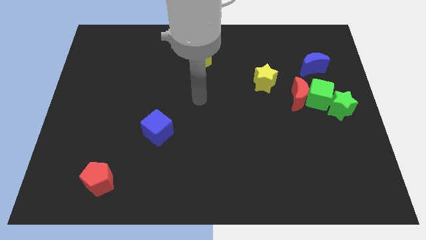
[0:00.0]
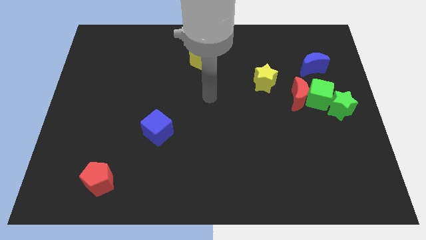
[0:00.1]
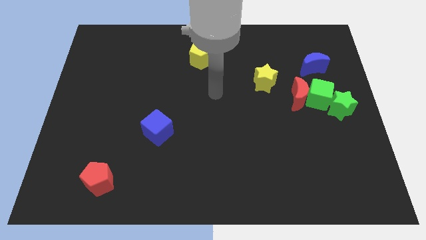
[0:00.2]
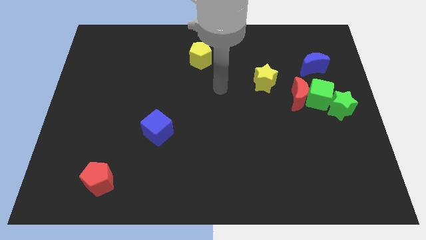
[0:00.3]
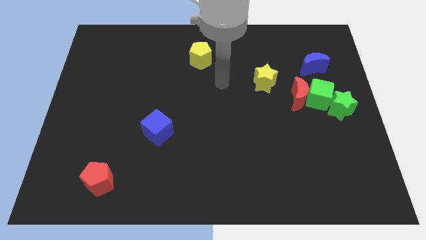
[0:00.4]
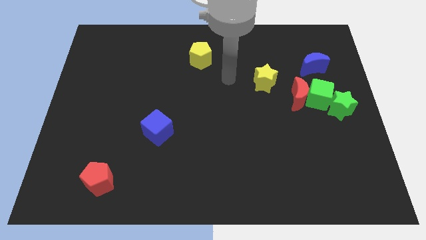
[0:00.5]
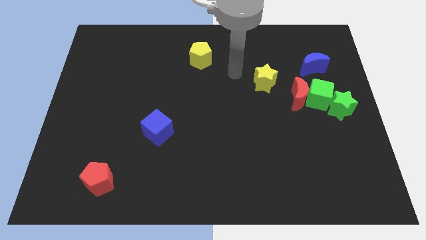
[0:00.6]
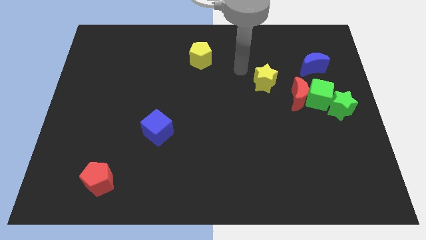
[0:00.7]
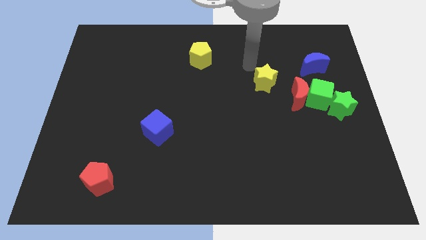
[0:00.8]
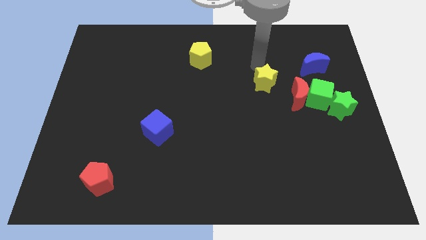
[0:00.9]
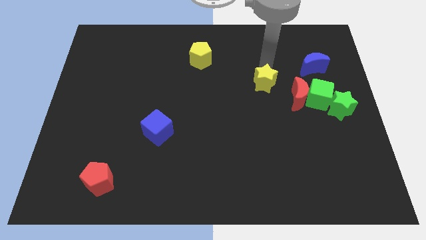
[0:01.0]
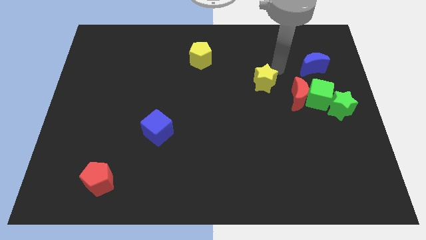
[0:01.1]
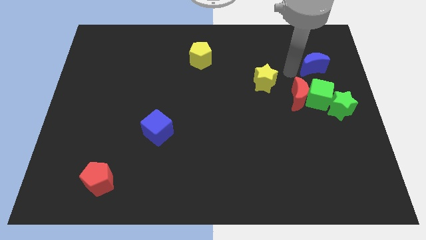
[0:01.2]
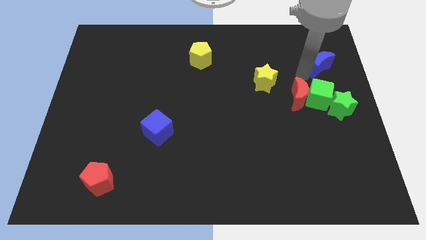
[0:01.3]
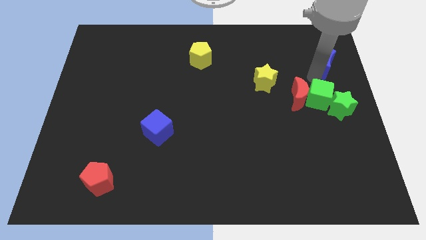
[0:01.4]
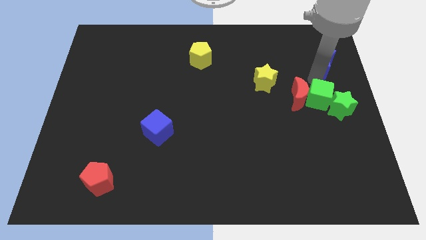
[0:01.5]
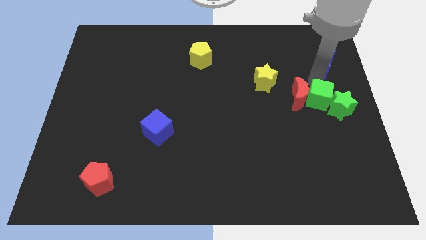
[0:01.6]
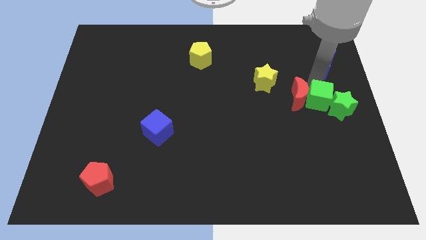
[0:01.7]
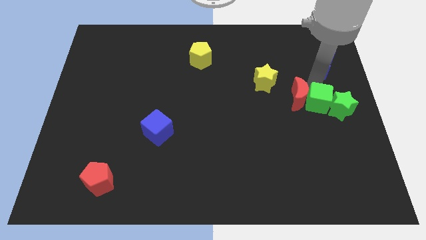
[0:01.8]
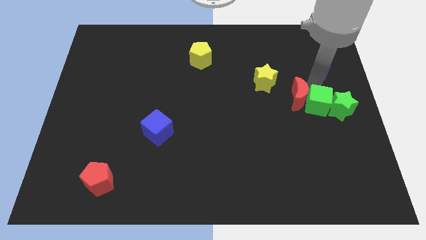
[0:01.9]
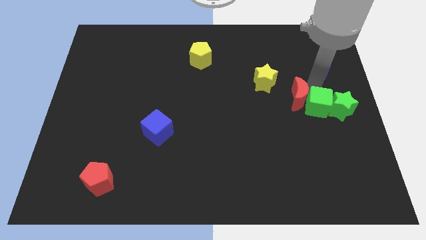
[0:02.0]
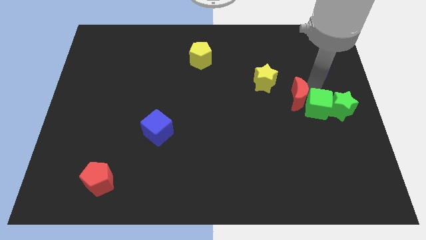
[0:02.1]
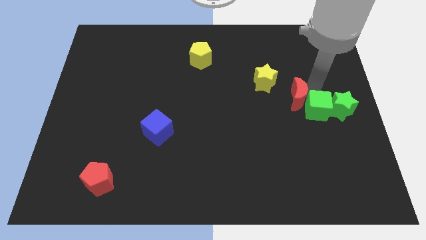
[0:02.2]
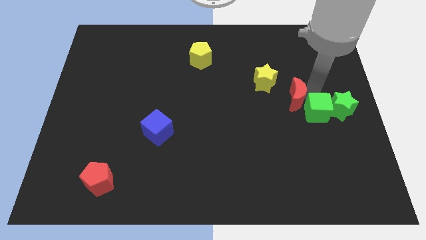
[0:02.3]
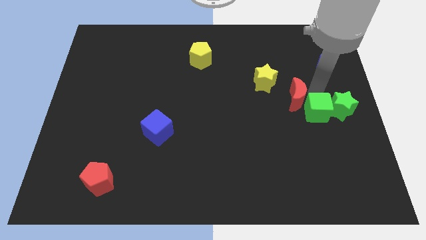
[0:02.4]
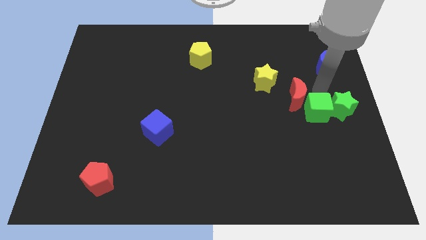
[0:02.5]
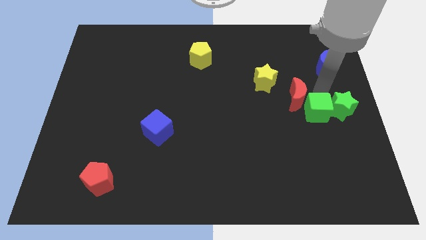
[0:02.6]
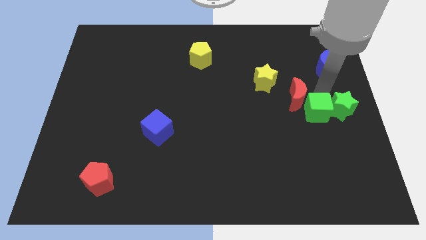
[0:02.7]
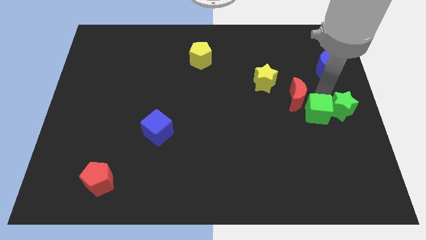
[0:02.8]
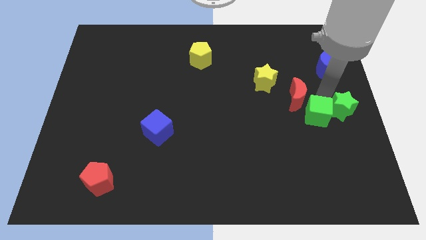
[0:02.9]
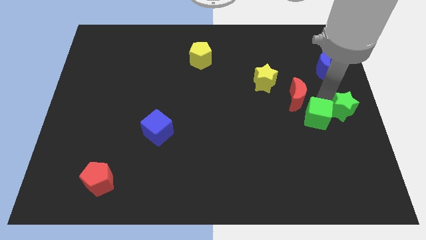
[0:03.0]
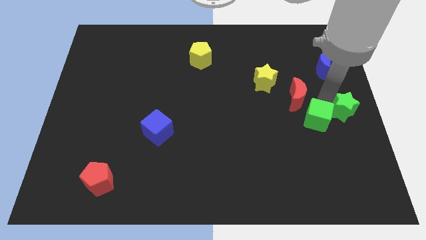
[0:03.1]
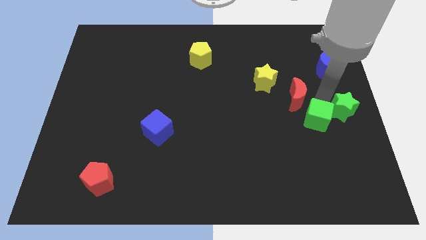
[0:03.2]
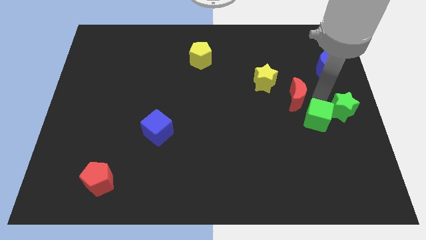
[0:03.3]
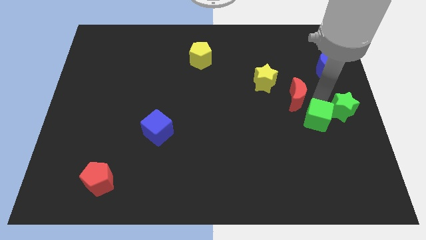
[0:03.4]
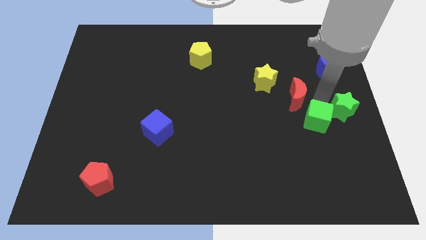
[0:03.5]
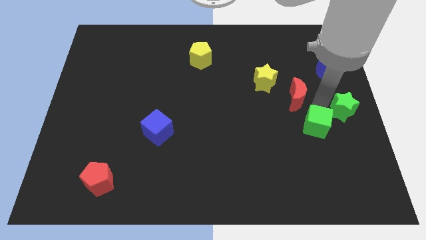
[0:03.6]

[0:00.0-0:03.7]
pull the green cube apart from the red moon, green star, and blue moon

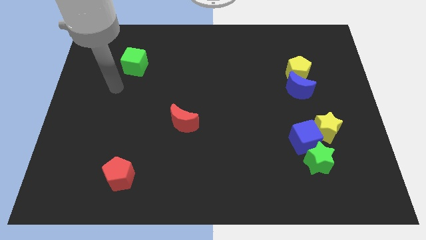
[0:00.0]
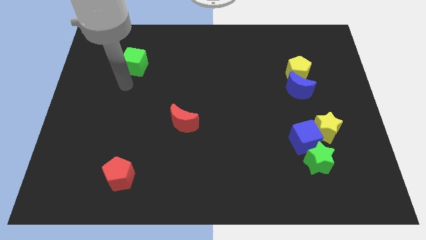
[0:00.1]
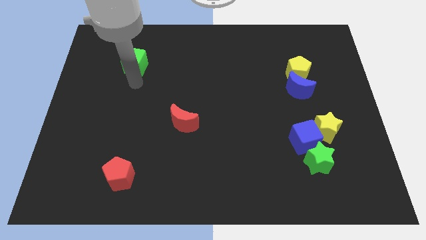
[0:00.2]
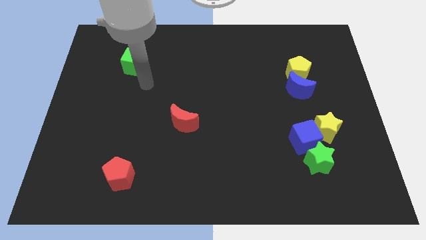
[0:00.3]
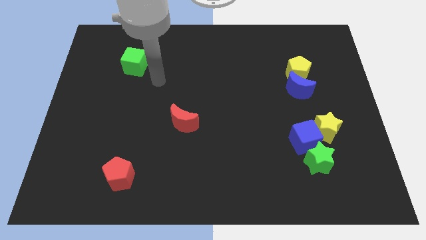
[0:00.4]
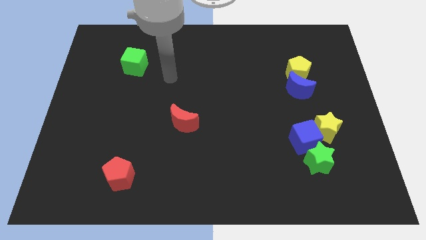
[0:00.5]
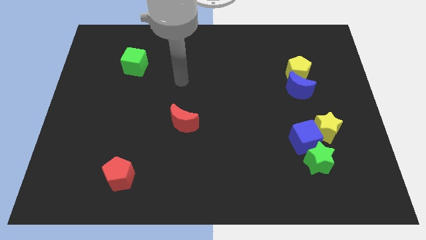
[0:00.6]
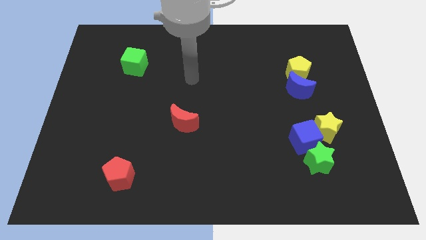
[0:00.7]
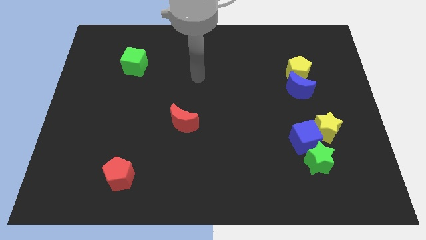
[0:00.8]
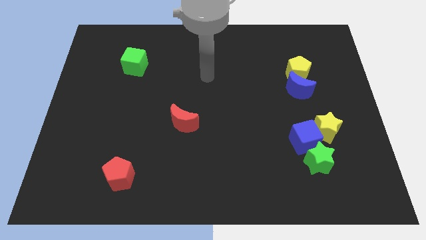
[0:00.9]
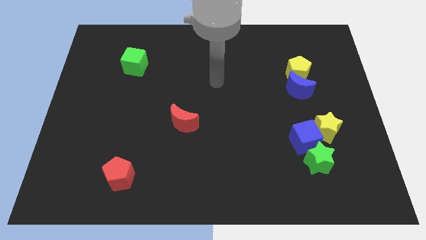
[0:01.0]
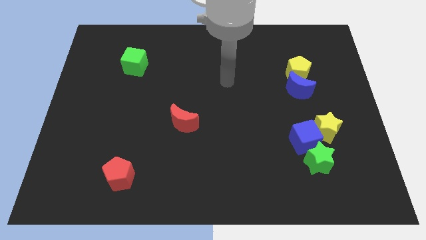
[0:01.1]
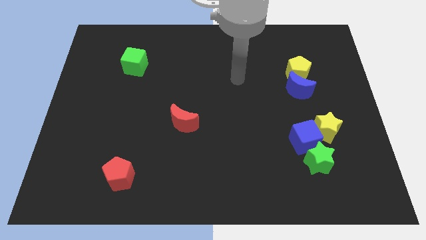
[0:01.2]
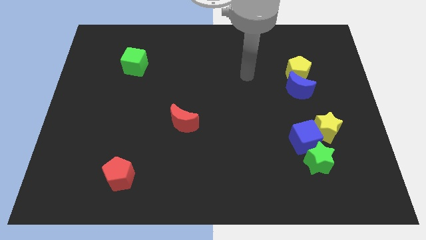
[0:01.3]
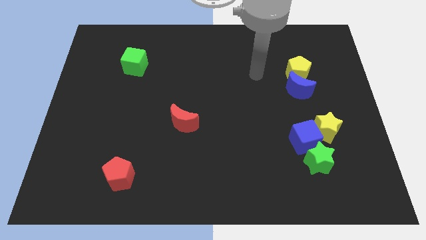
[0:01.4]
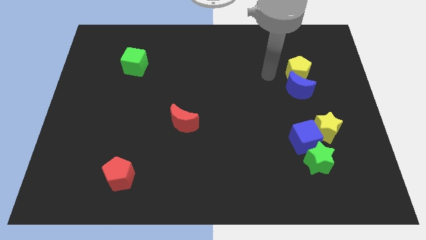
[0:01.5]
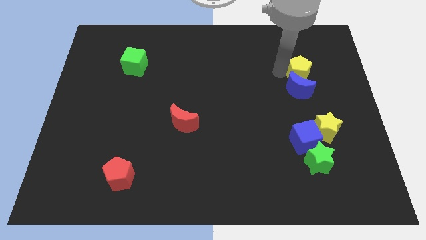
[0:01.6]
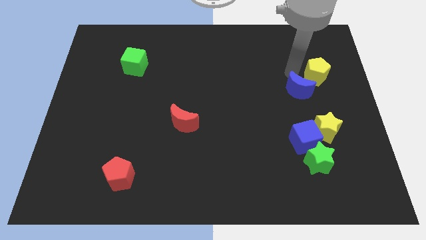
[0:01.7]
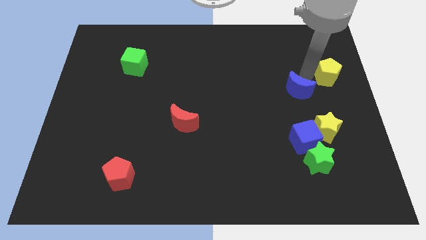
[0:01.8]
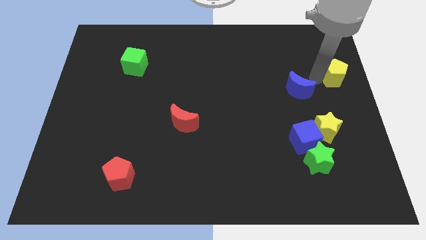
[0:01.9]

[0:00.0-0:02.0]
separate the blue moon from the yellow pentagon

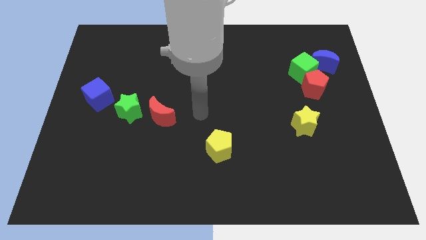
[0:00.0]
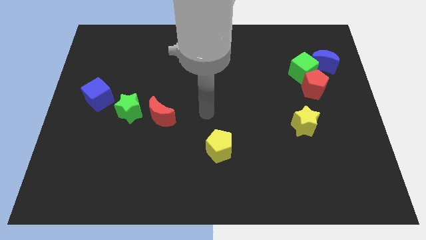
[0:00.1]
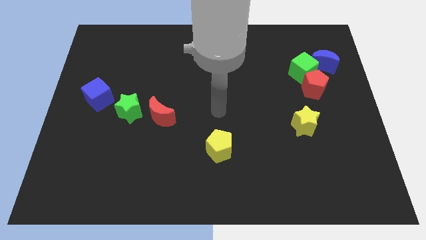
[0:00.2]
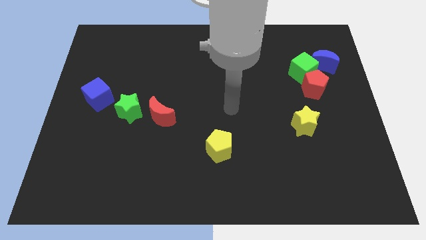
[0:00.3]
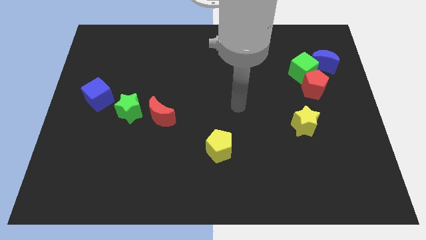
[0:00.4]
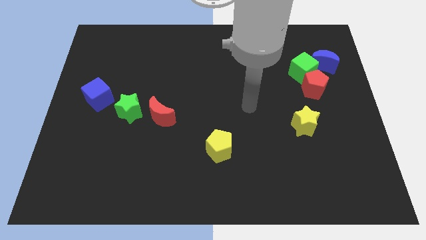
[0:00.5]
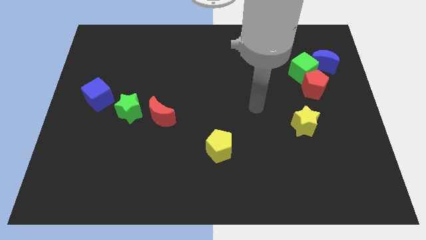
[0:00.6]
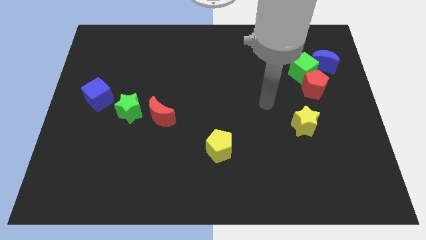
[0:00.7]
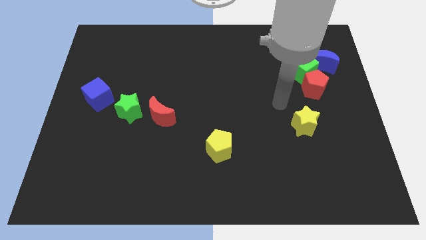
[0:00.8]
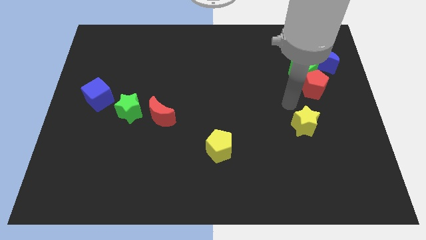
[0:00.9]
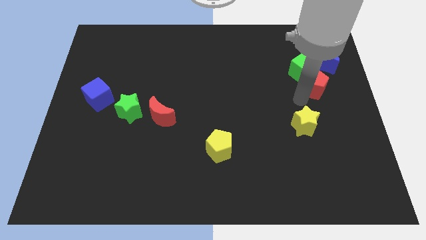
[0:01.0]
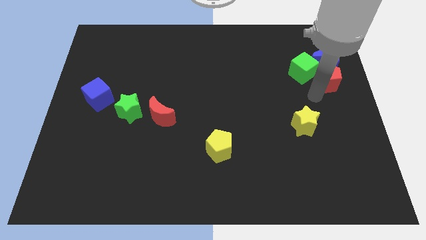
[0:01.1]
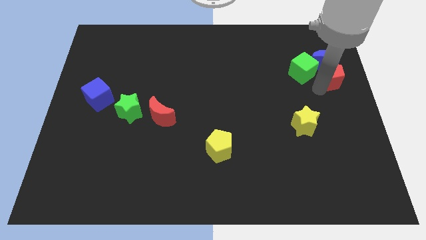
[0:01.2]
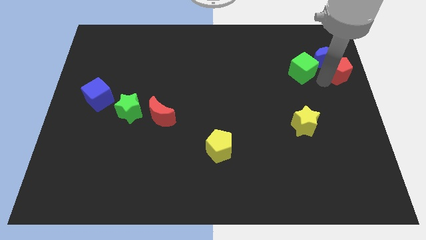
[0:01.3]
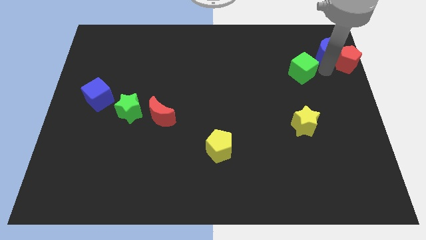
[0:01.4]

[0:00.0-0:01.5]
pull the green cube apart from the red pentagon and blue moon

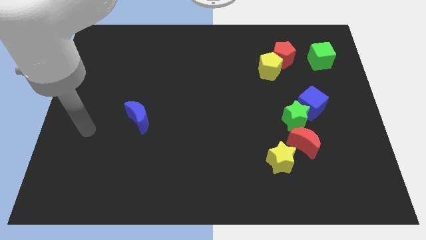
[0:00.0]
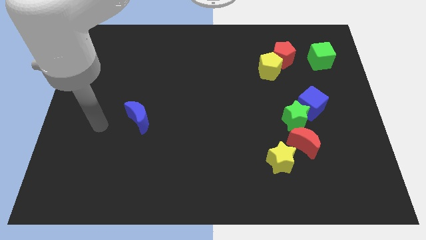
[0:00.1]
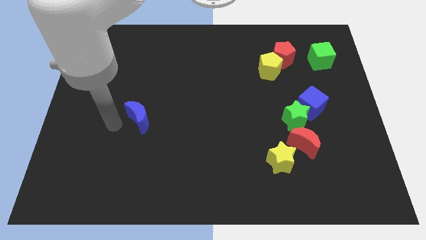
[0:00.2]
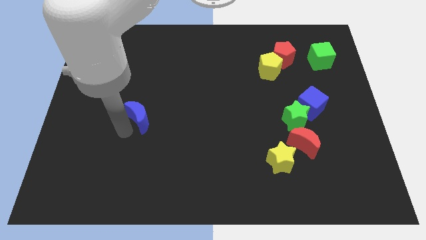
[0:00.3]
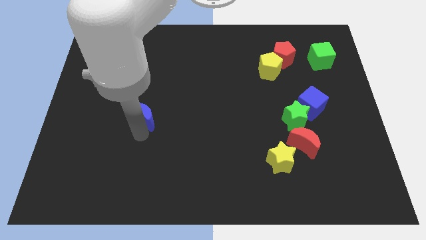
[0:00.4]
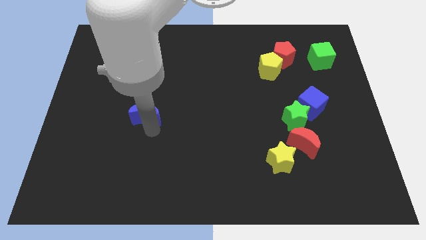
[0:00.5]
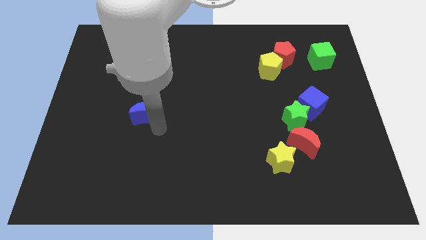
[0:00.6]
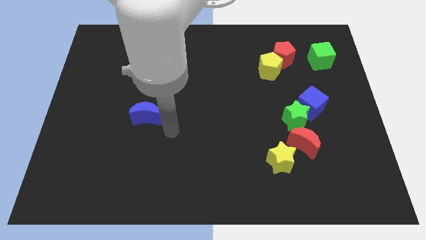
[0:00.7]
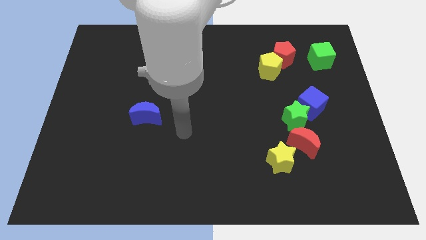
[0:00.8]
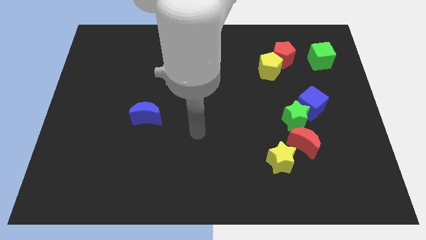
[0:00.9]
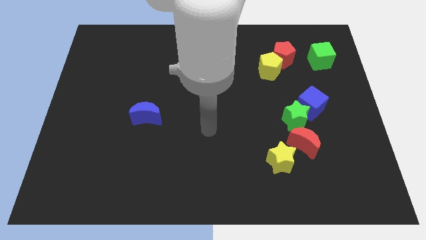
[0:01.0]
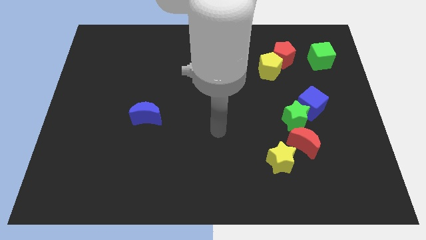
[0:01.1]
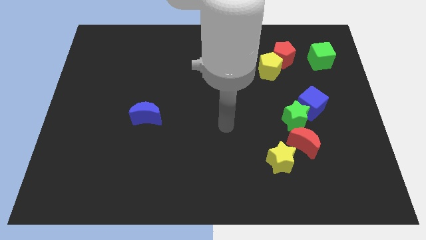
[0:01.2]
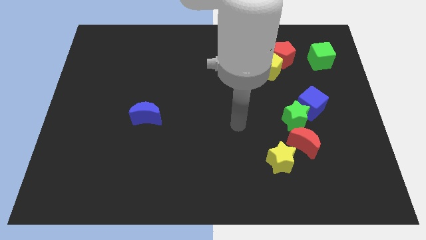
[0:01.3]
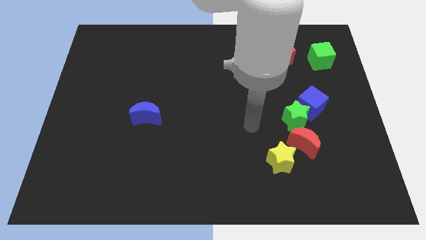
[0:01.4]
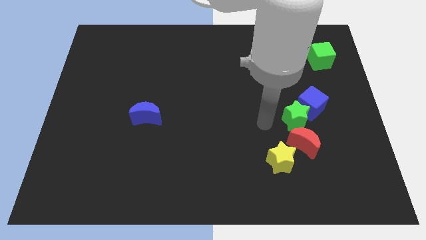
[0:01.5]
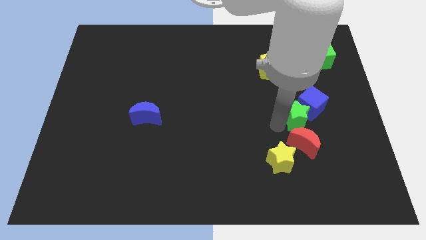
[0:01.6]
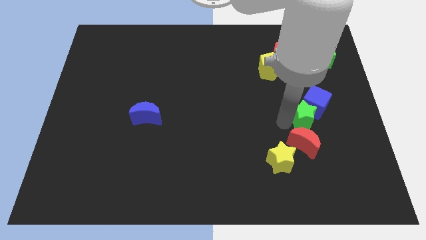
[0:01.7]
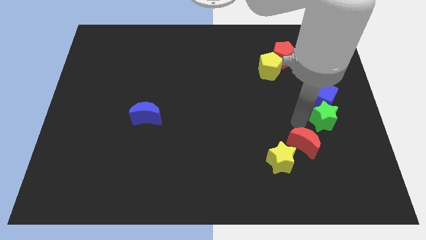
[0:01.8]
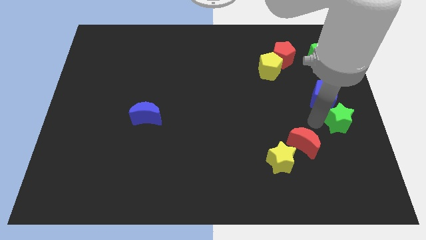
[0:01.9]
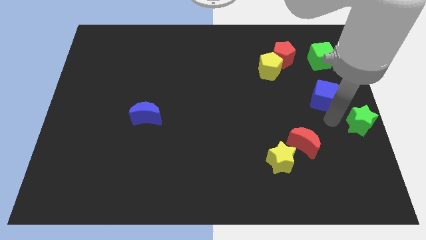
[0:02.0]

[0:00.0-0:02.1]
pull the blue cube apart from the green star

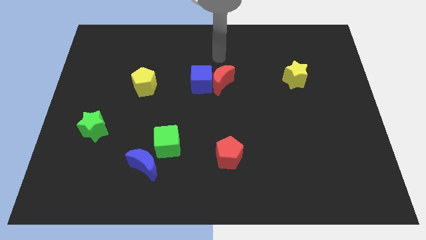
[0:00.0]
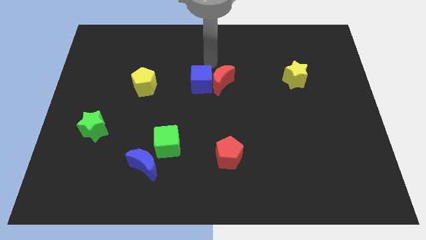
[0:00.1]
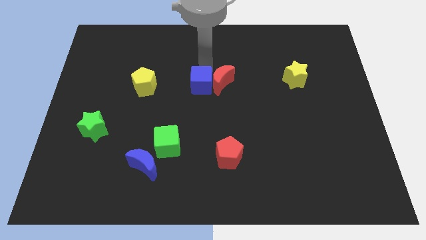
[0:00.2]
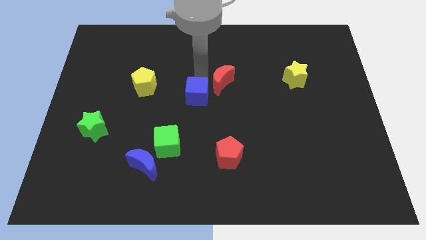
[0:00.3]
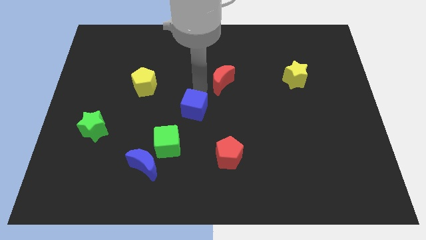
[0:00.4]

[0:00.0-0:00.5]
separate the red moon from the blue cube
